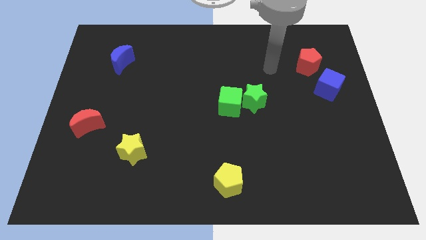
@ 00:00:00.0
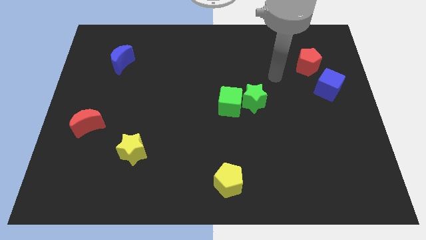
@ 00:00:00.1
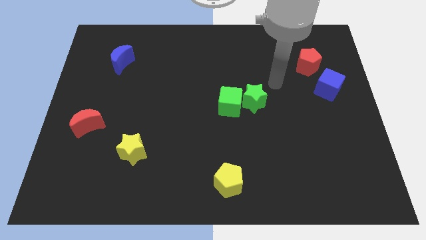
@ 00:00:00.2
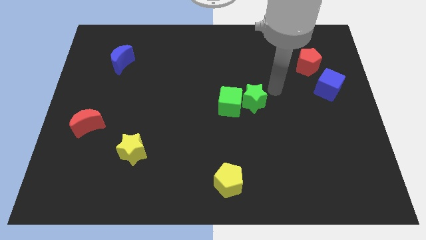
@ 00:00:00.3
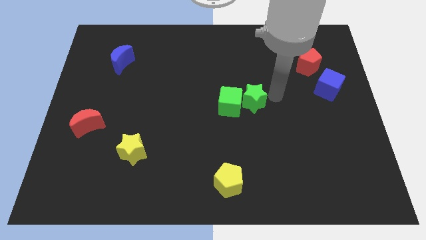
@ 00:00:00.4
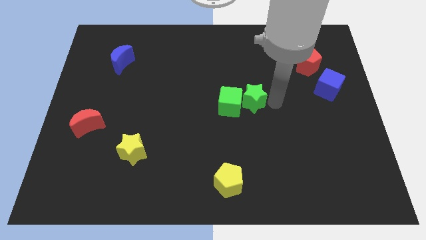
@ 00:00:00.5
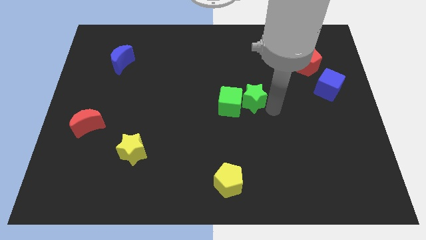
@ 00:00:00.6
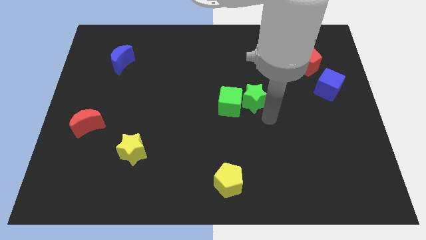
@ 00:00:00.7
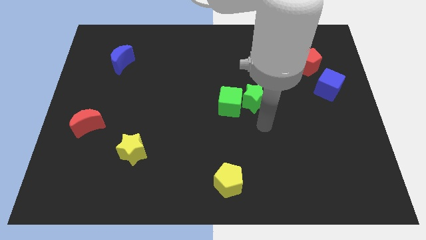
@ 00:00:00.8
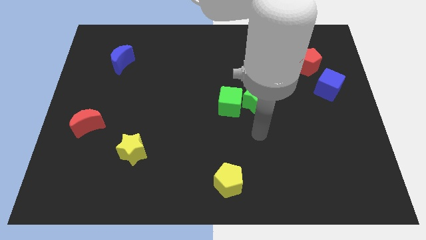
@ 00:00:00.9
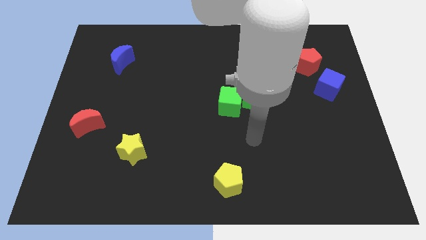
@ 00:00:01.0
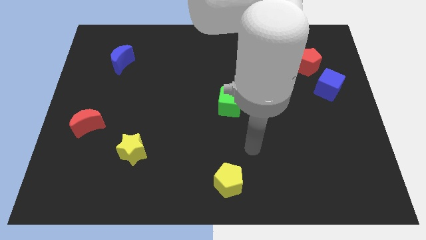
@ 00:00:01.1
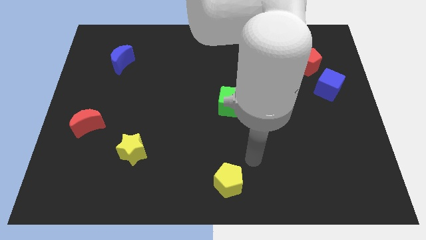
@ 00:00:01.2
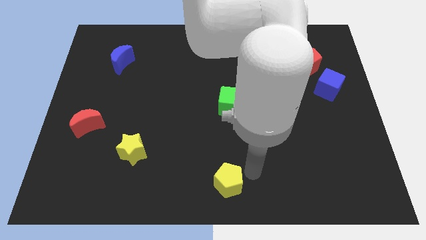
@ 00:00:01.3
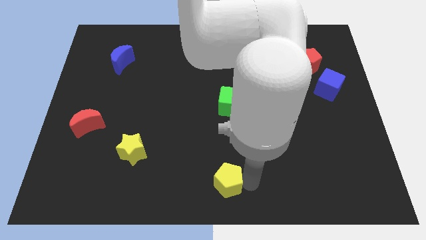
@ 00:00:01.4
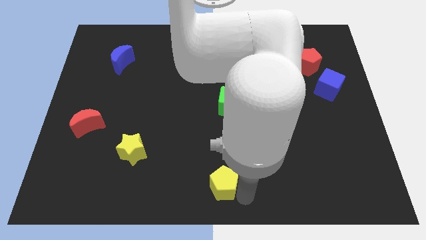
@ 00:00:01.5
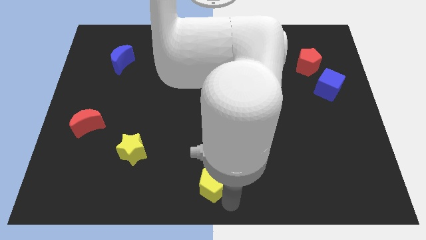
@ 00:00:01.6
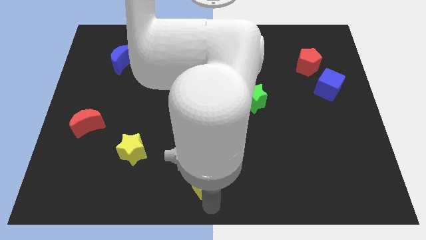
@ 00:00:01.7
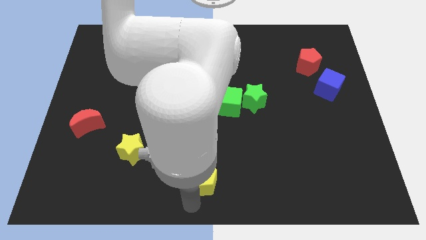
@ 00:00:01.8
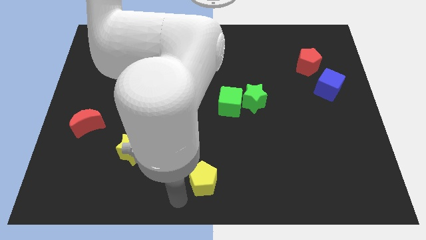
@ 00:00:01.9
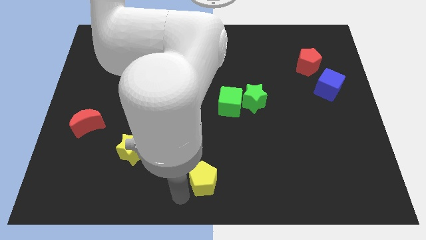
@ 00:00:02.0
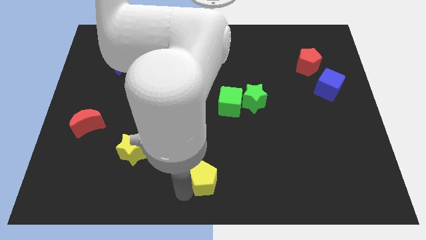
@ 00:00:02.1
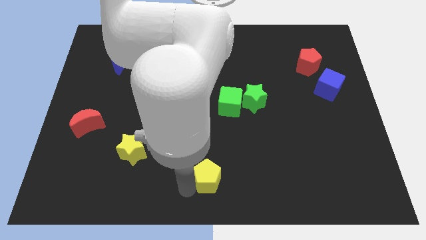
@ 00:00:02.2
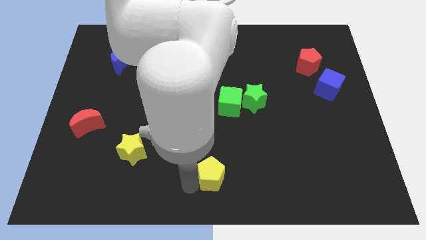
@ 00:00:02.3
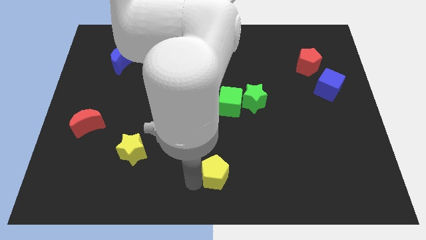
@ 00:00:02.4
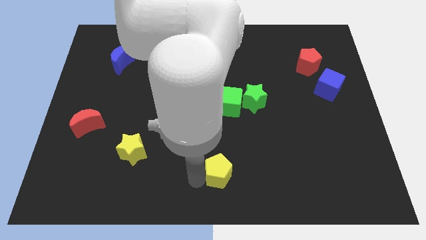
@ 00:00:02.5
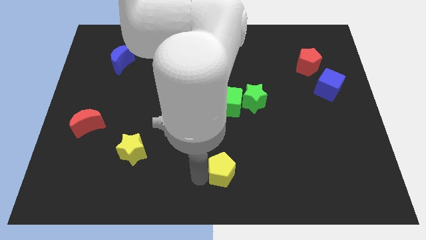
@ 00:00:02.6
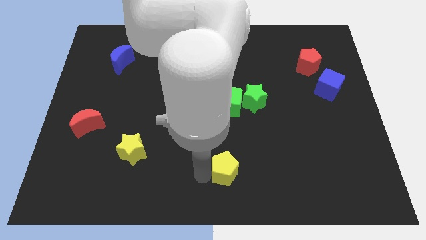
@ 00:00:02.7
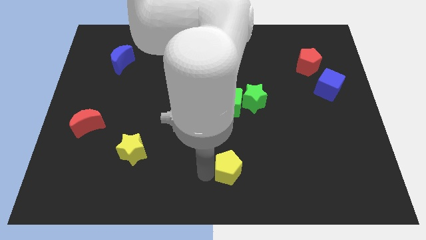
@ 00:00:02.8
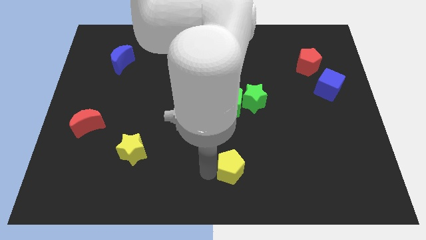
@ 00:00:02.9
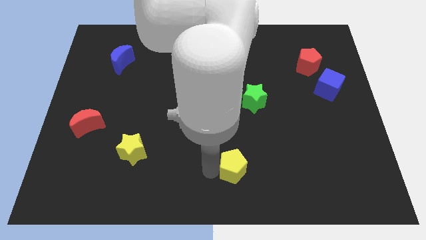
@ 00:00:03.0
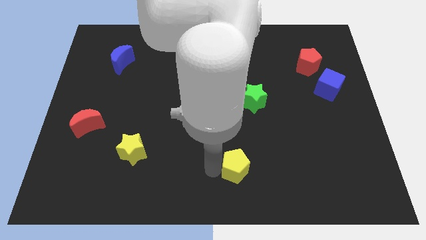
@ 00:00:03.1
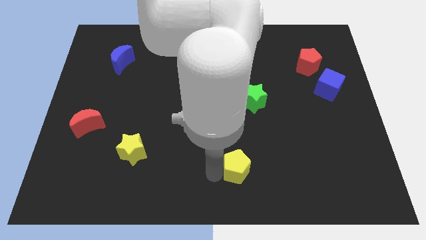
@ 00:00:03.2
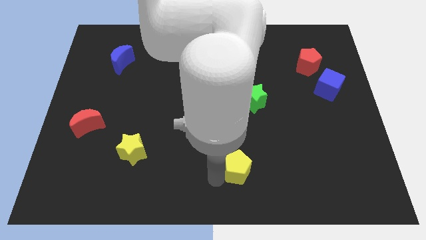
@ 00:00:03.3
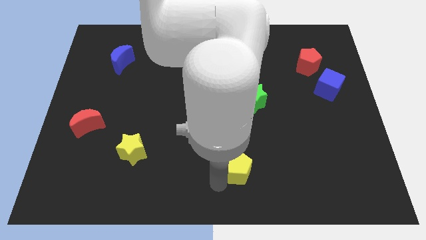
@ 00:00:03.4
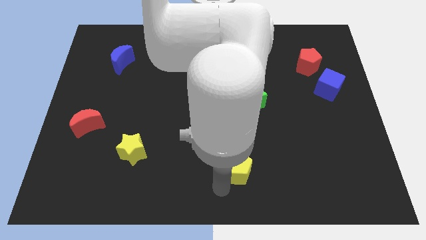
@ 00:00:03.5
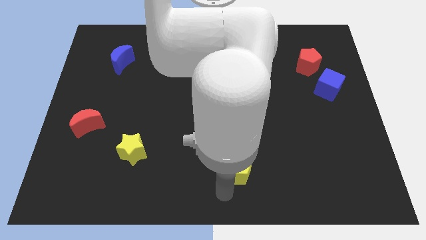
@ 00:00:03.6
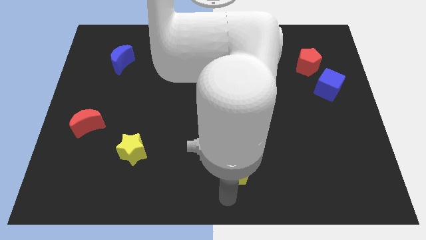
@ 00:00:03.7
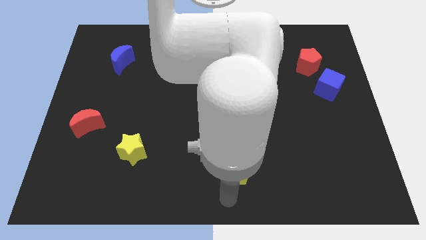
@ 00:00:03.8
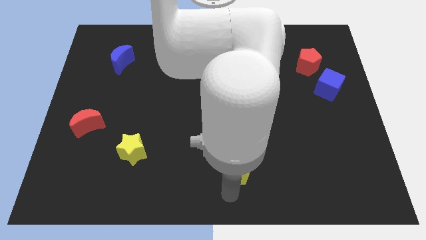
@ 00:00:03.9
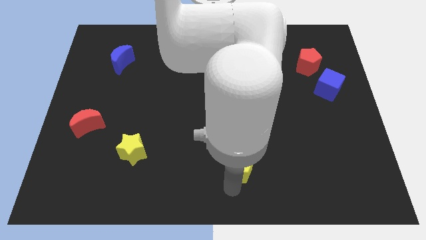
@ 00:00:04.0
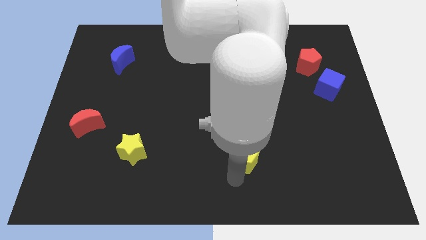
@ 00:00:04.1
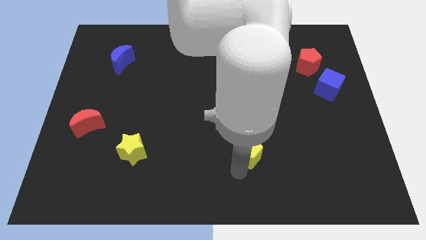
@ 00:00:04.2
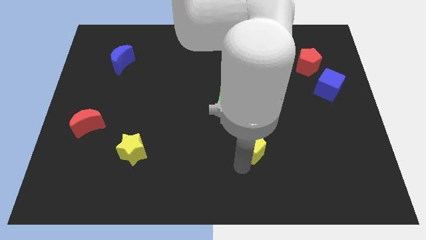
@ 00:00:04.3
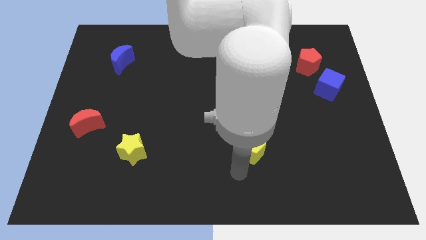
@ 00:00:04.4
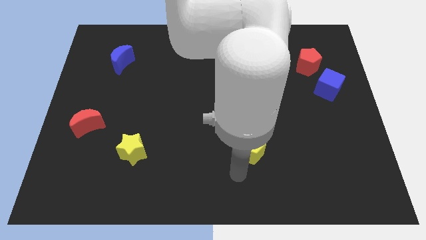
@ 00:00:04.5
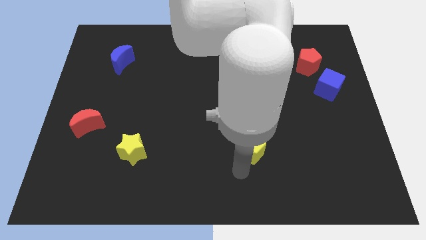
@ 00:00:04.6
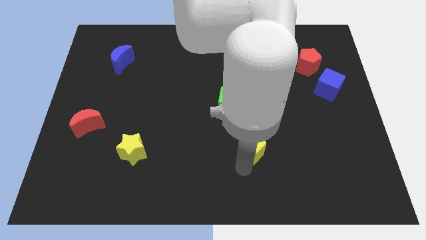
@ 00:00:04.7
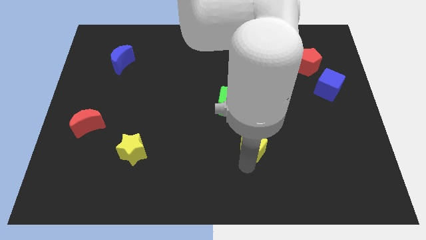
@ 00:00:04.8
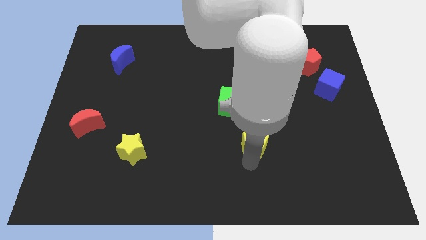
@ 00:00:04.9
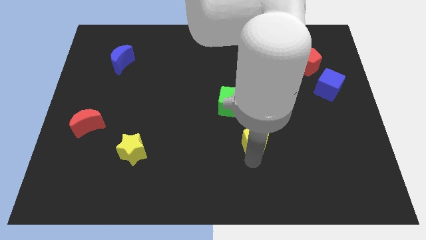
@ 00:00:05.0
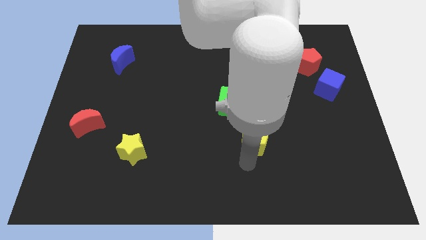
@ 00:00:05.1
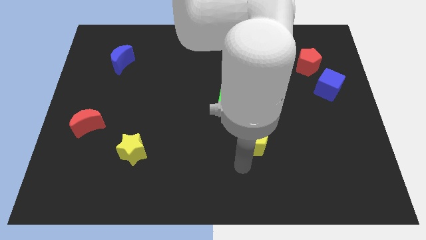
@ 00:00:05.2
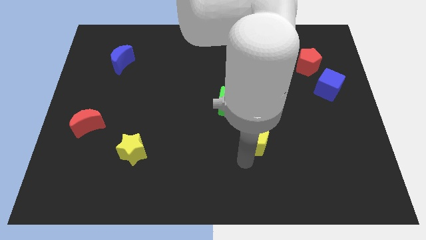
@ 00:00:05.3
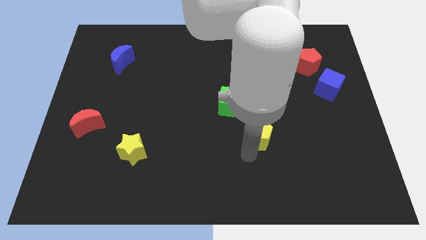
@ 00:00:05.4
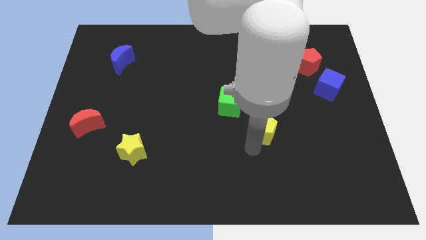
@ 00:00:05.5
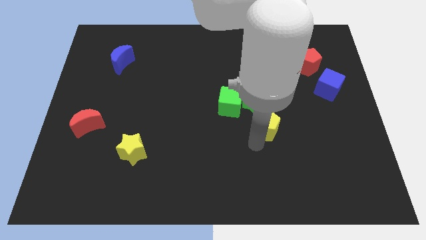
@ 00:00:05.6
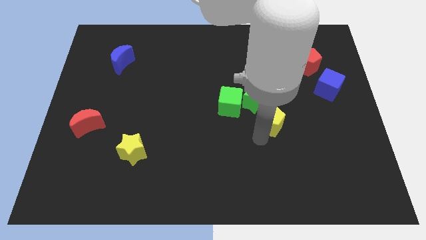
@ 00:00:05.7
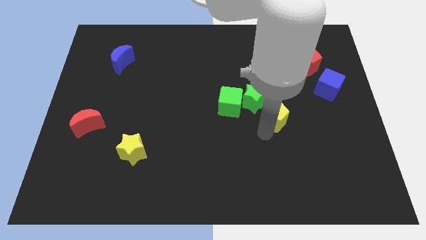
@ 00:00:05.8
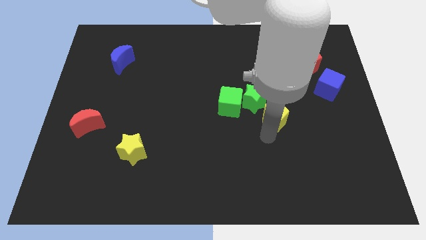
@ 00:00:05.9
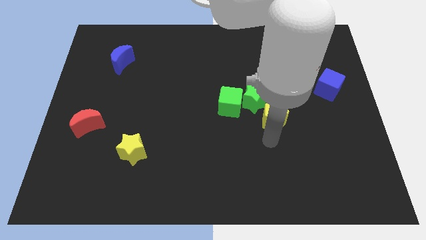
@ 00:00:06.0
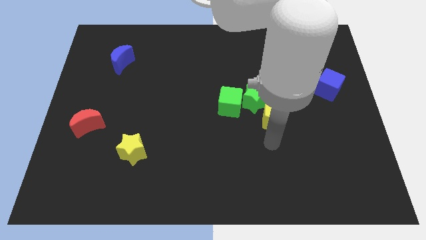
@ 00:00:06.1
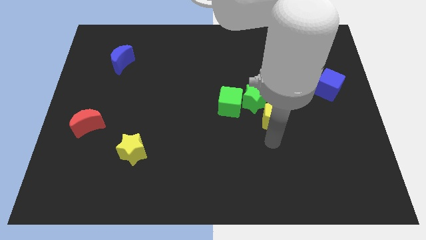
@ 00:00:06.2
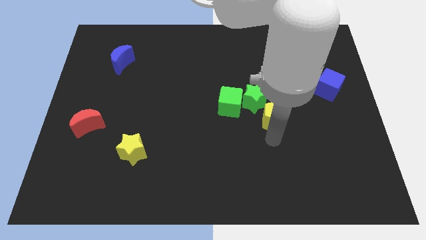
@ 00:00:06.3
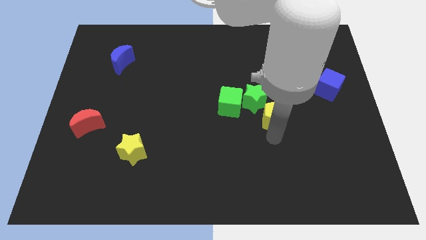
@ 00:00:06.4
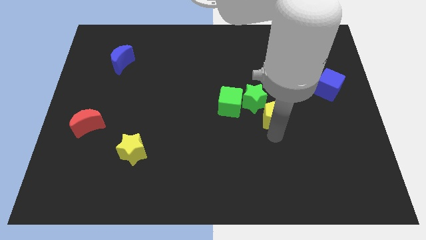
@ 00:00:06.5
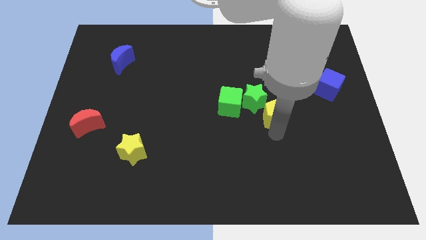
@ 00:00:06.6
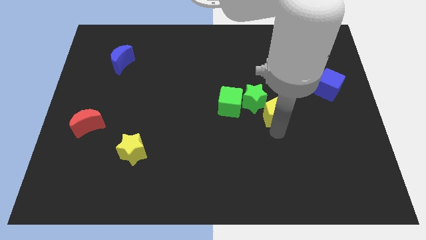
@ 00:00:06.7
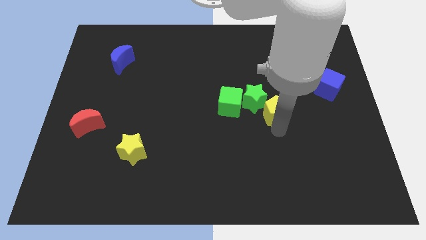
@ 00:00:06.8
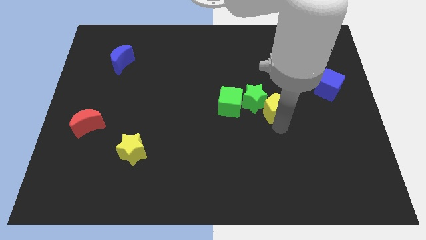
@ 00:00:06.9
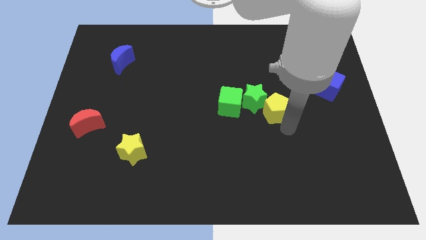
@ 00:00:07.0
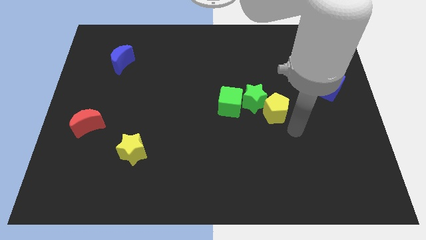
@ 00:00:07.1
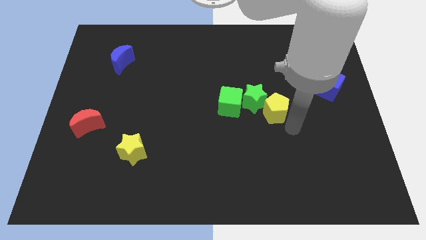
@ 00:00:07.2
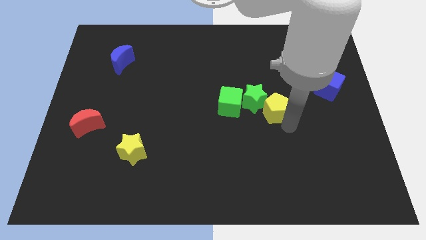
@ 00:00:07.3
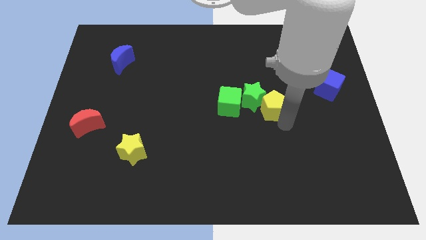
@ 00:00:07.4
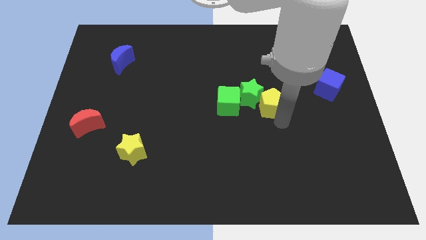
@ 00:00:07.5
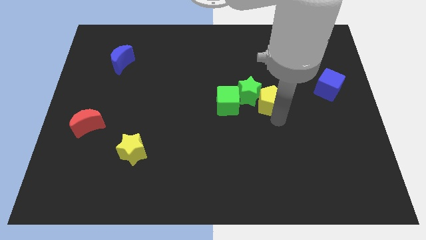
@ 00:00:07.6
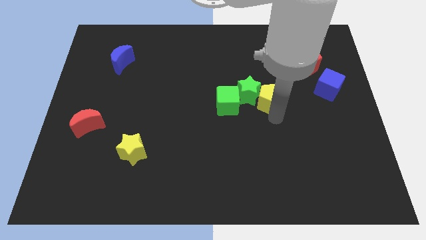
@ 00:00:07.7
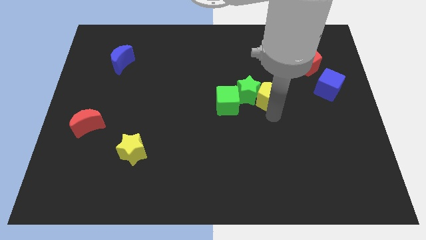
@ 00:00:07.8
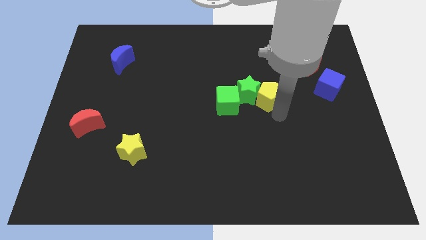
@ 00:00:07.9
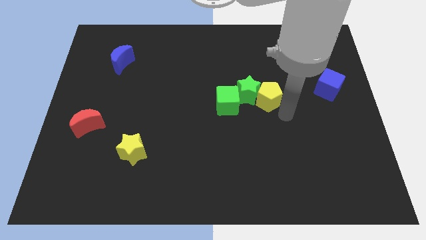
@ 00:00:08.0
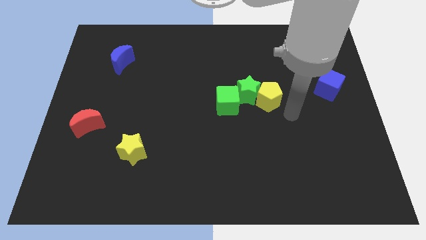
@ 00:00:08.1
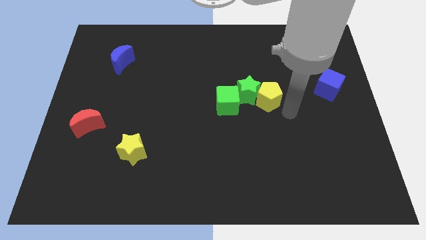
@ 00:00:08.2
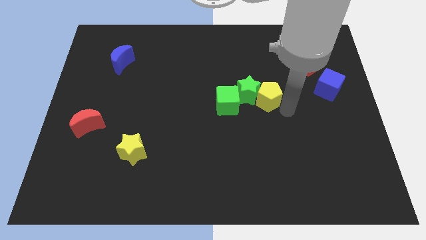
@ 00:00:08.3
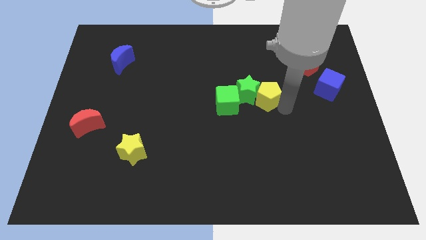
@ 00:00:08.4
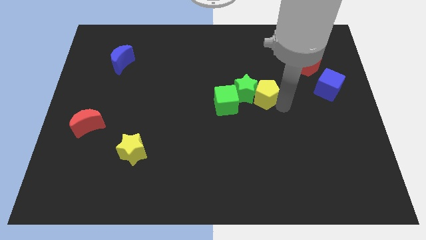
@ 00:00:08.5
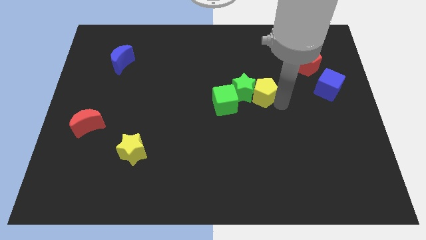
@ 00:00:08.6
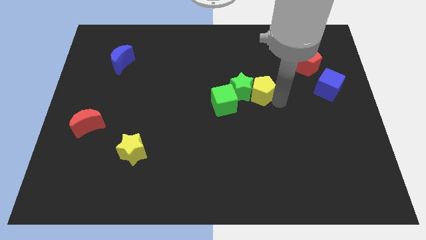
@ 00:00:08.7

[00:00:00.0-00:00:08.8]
push the yellow pentagon diagonally up and to the right of the green cube
